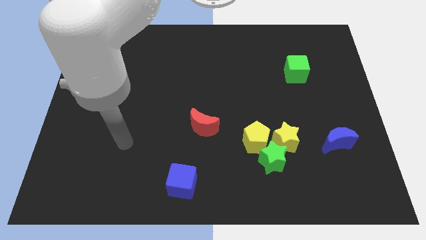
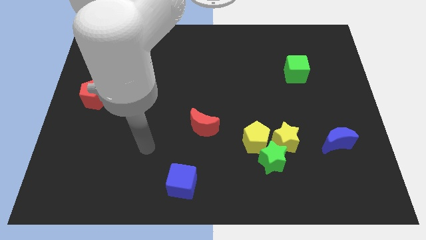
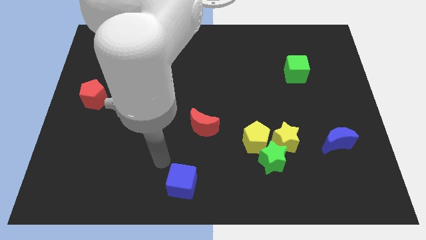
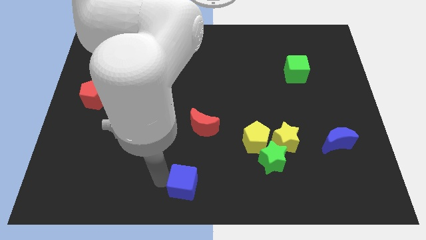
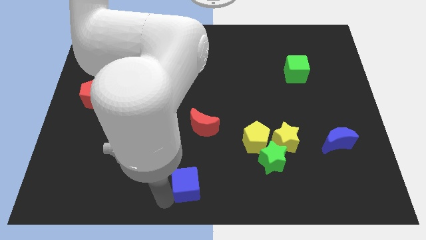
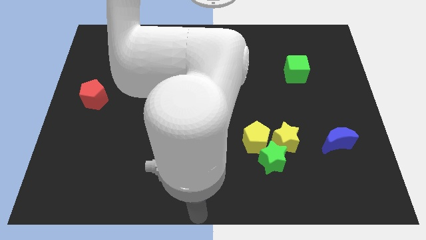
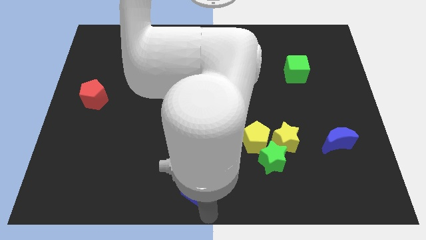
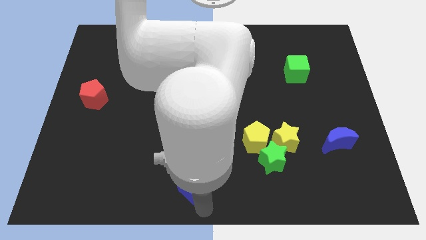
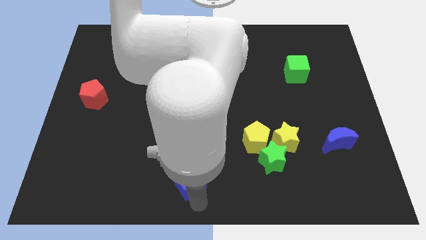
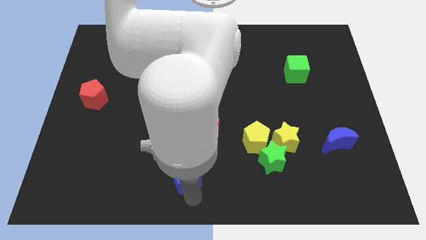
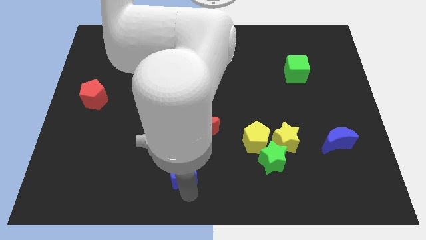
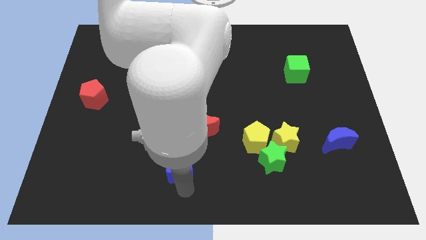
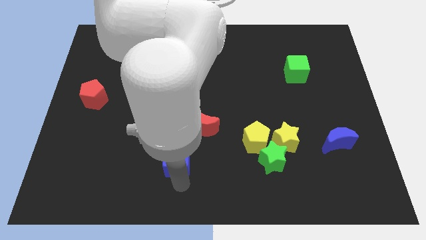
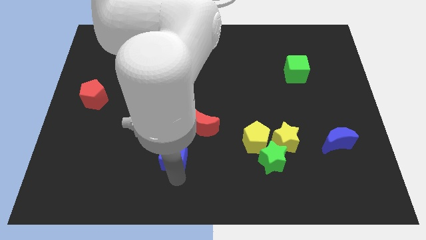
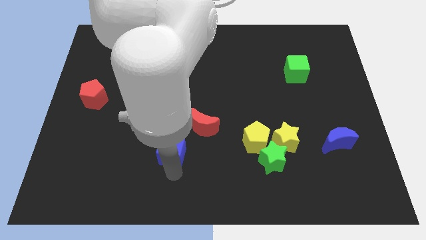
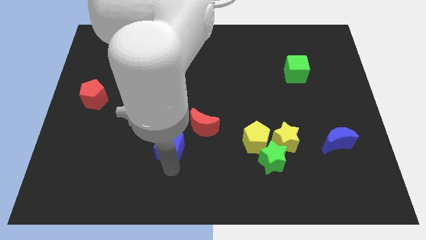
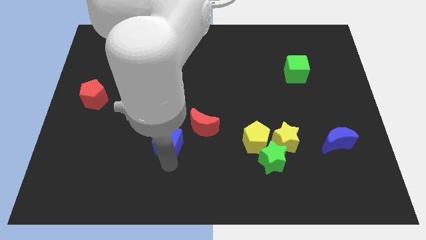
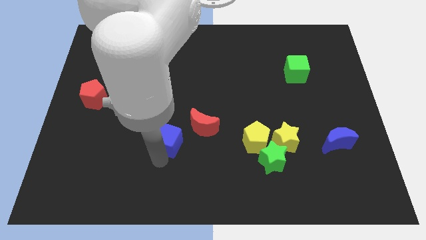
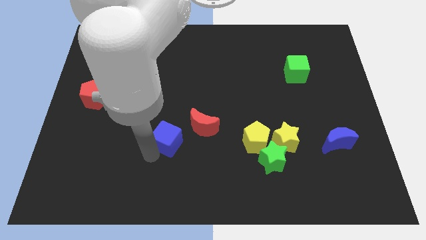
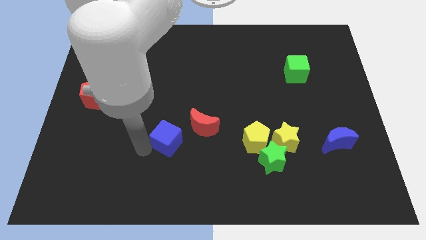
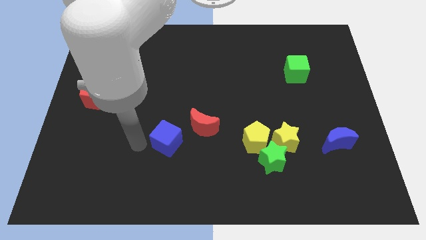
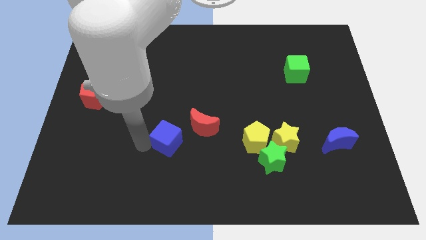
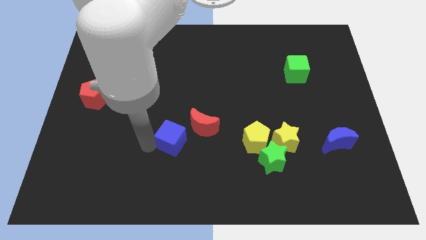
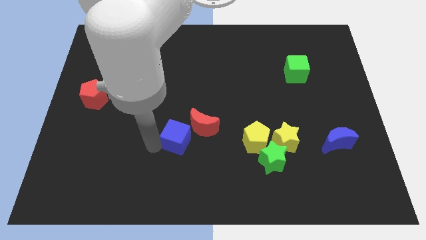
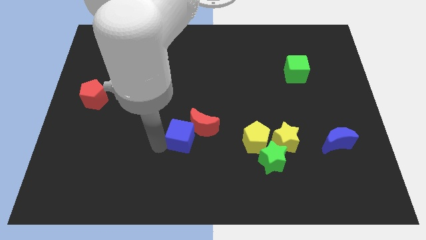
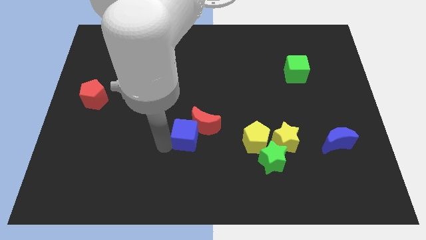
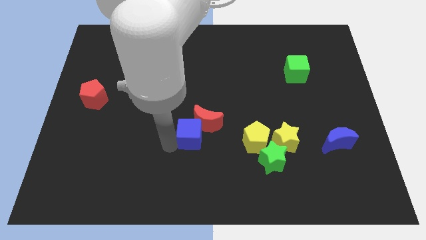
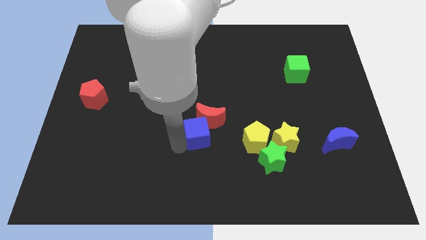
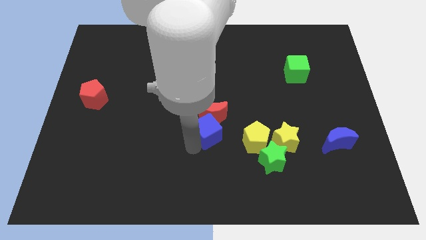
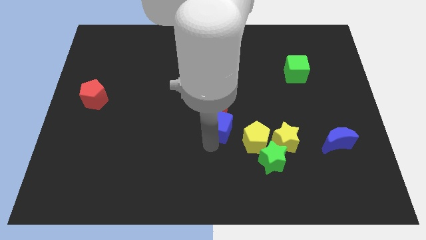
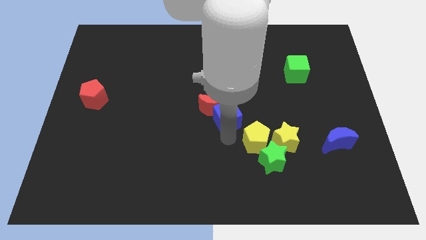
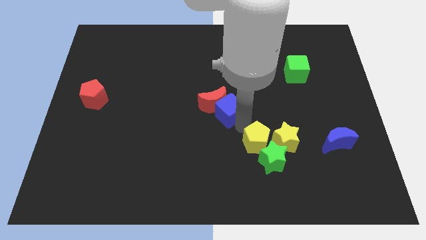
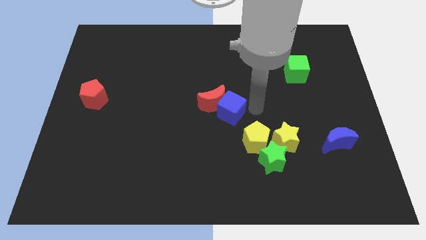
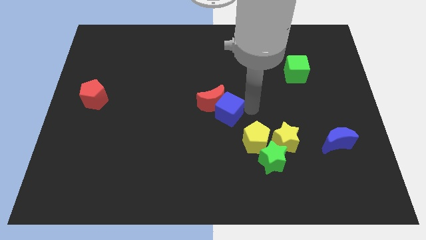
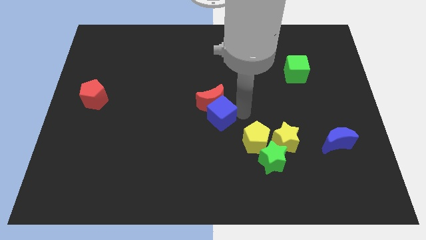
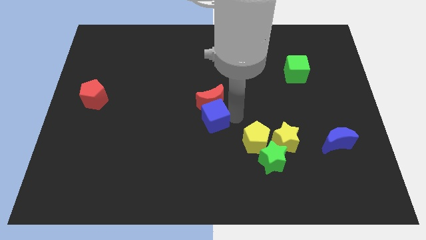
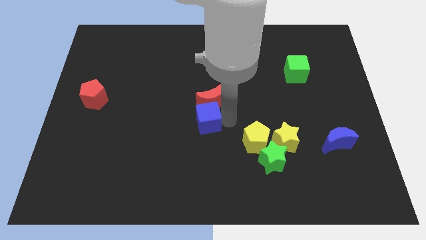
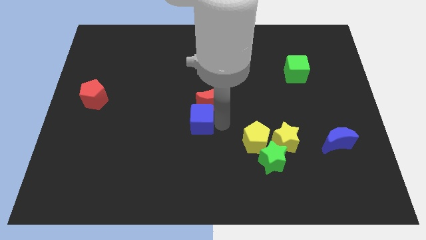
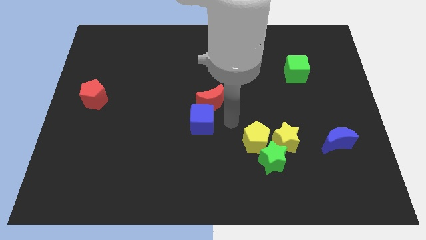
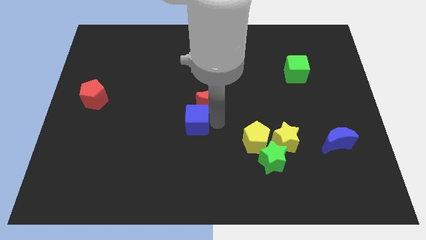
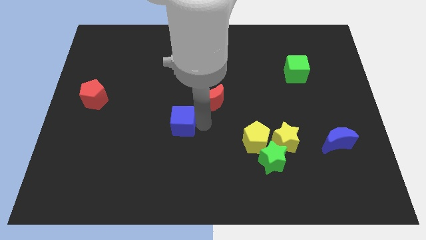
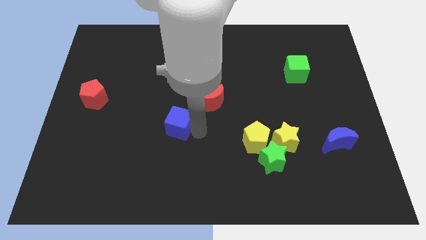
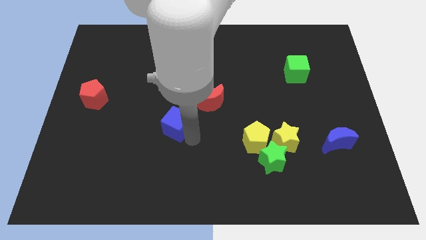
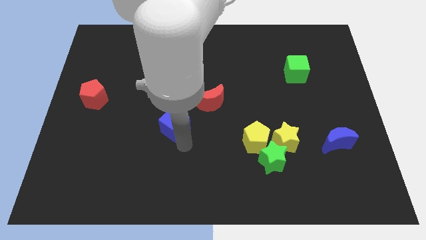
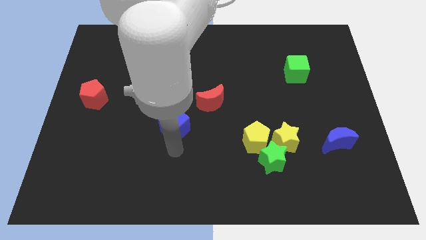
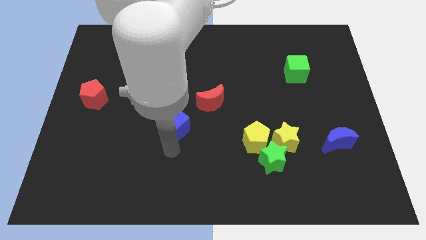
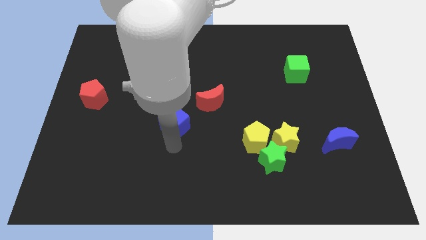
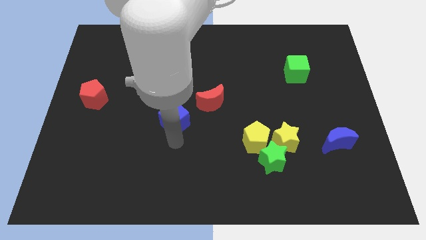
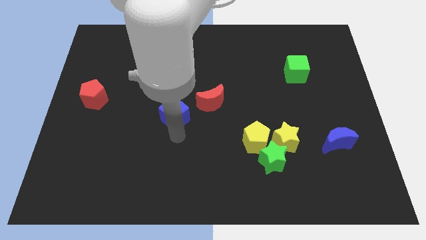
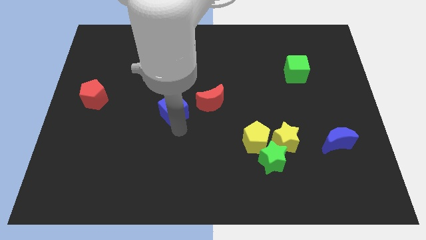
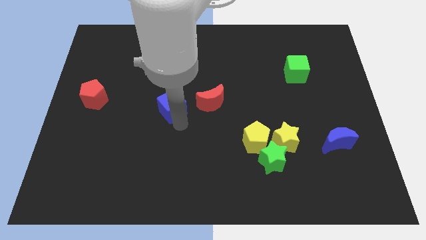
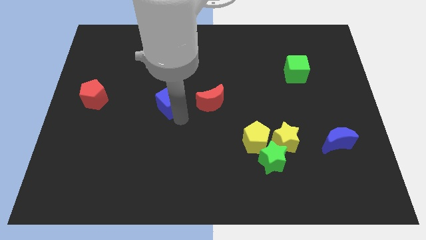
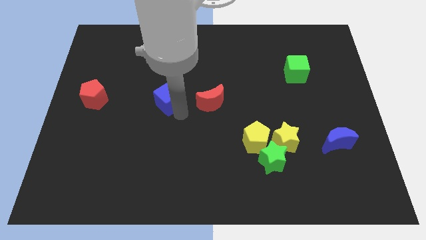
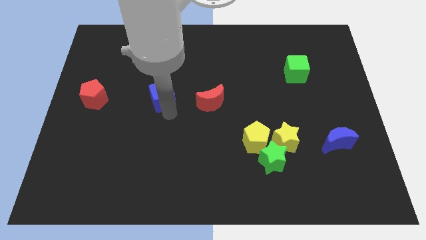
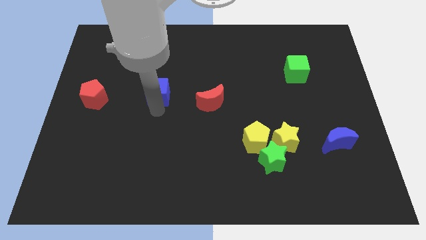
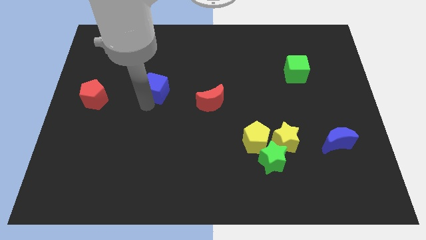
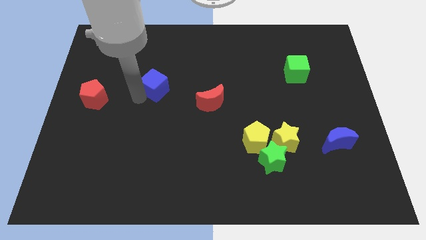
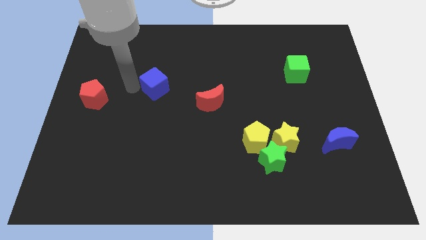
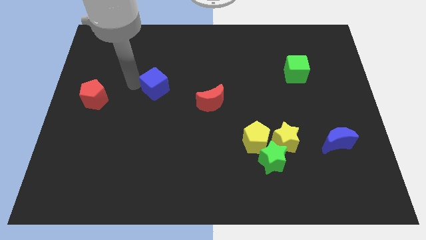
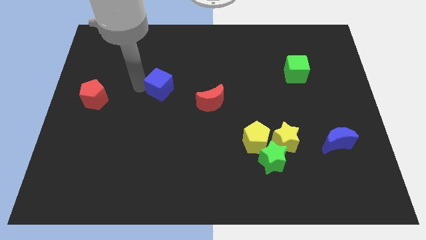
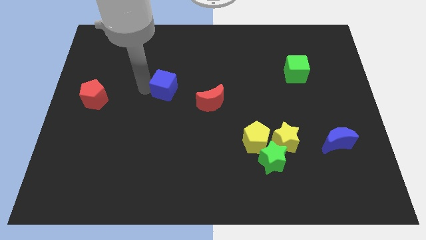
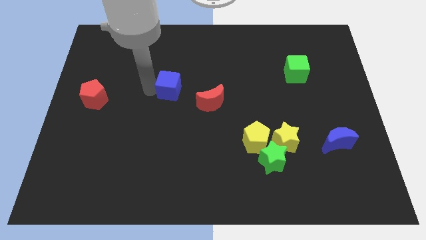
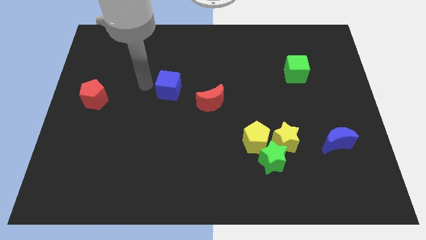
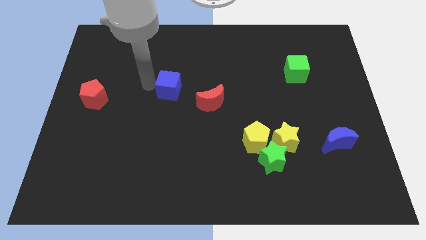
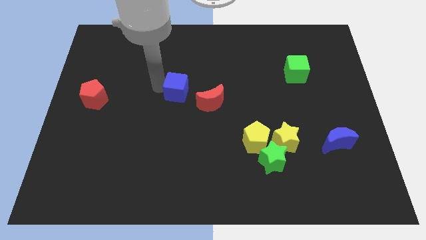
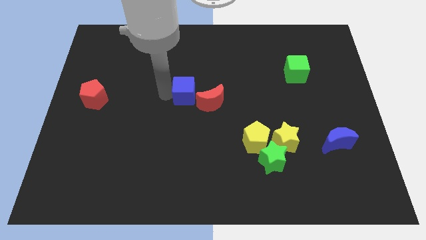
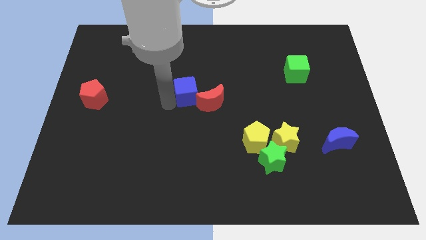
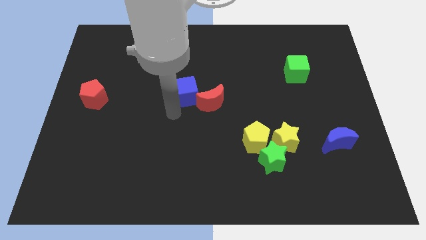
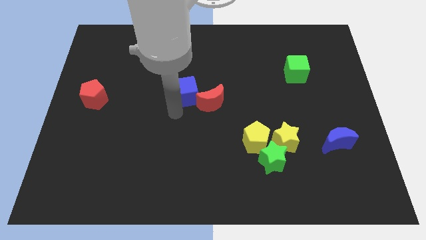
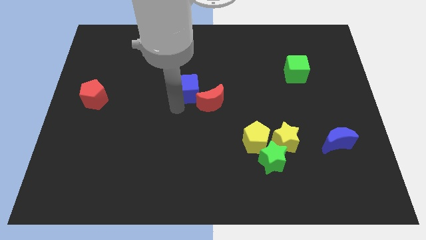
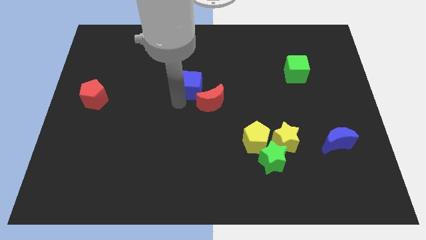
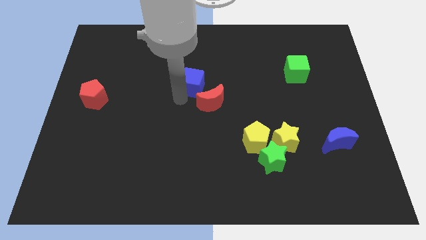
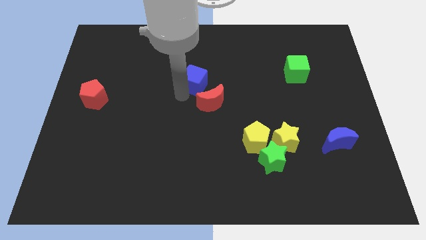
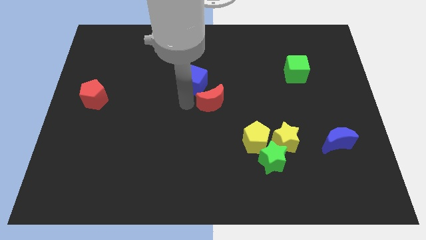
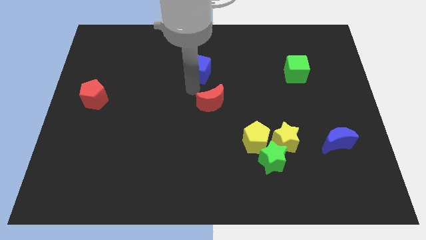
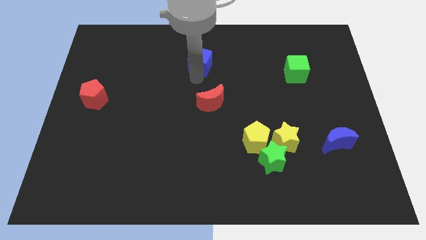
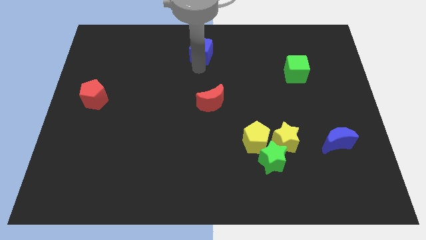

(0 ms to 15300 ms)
slide the blue cube to the top
